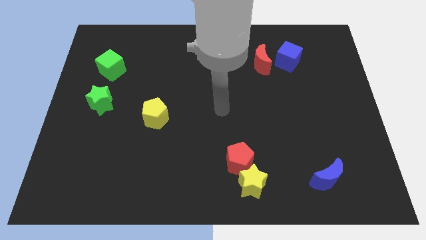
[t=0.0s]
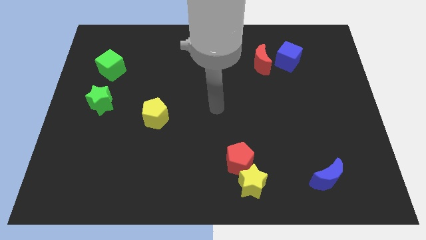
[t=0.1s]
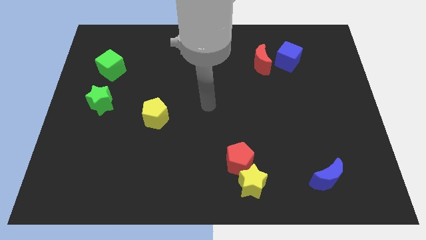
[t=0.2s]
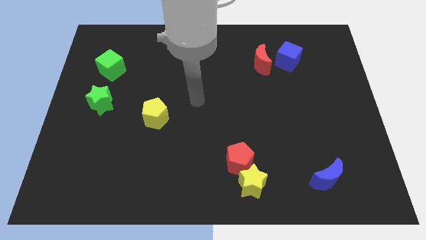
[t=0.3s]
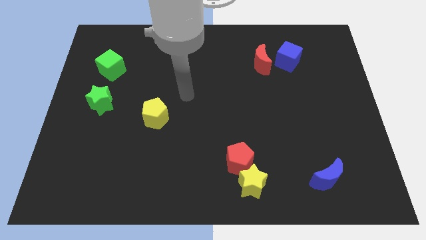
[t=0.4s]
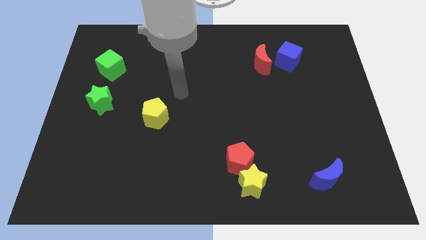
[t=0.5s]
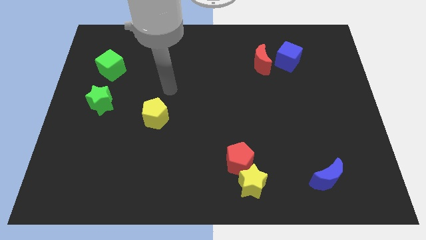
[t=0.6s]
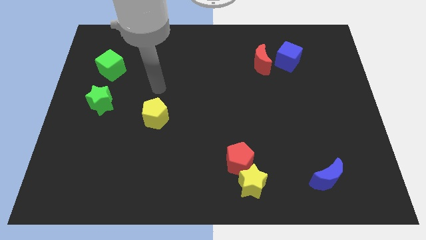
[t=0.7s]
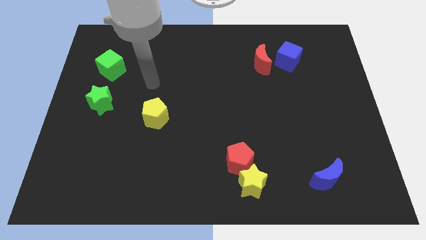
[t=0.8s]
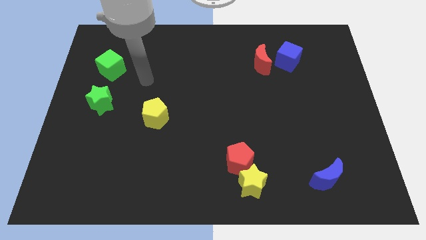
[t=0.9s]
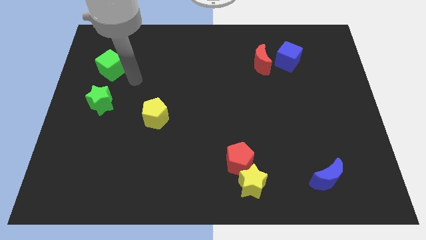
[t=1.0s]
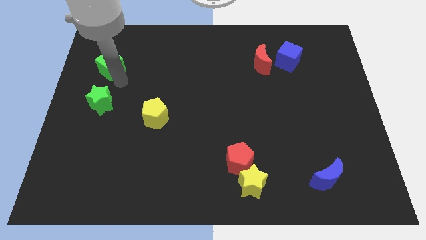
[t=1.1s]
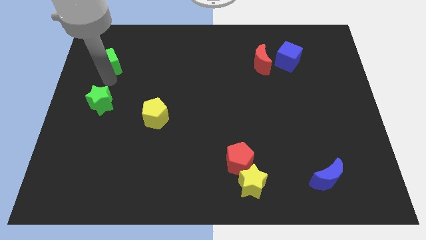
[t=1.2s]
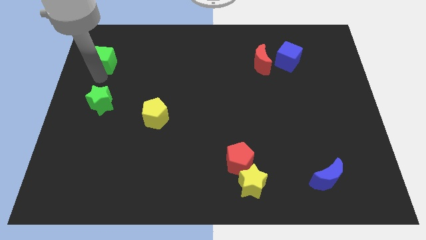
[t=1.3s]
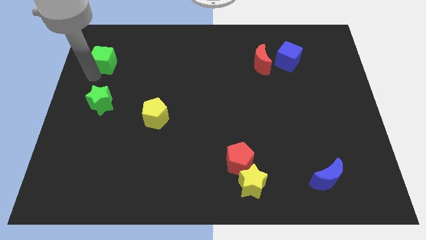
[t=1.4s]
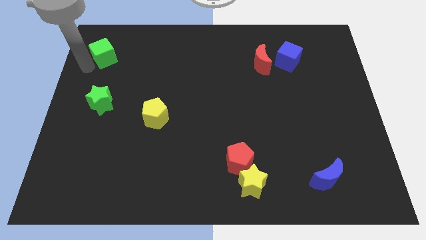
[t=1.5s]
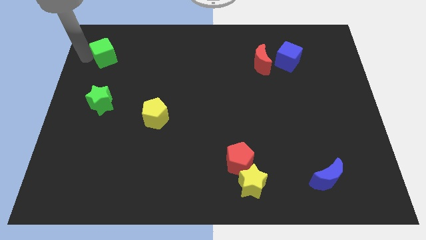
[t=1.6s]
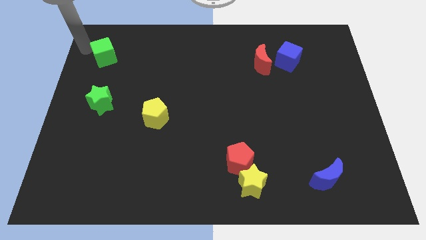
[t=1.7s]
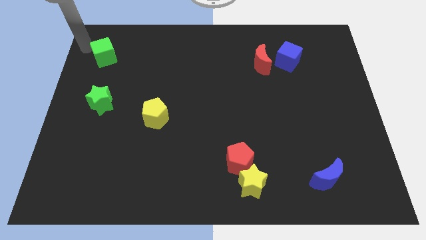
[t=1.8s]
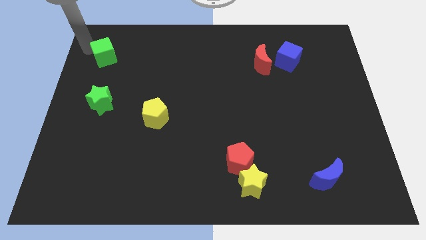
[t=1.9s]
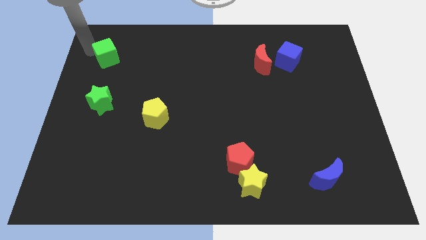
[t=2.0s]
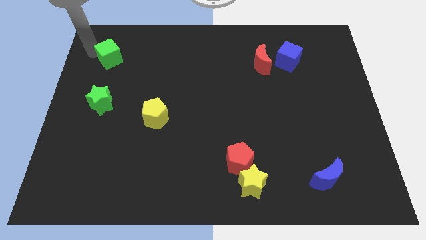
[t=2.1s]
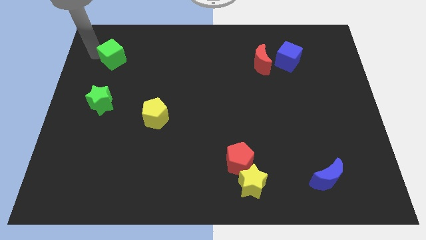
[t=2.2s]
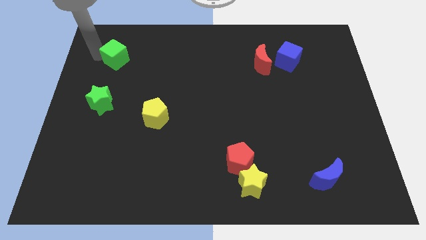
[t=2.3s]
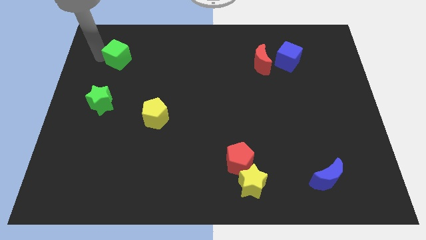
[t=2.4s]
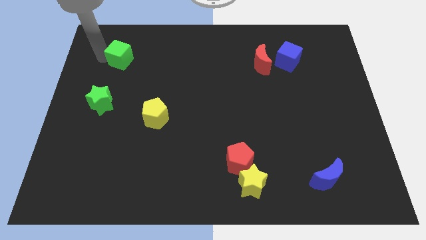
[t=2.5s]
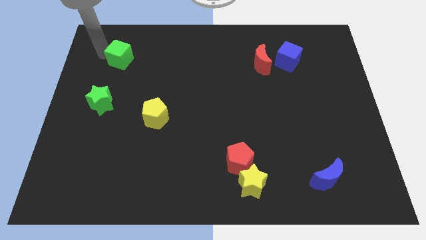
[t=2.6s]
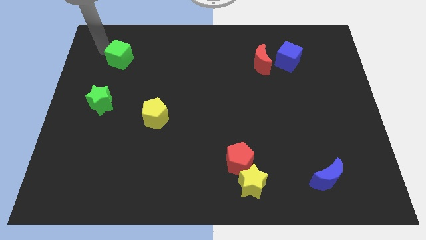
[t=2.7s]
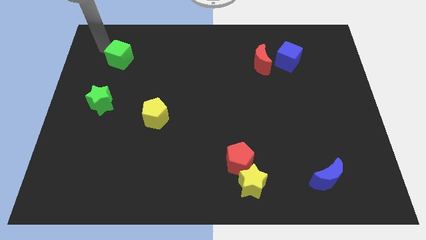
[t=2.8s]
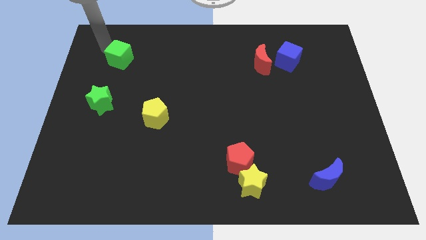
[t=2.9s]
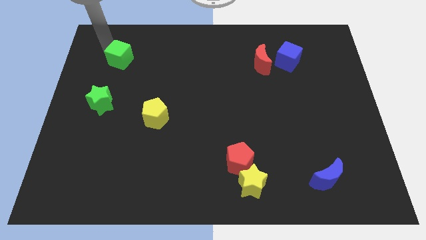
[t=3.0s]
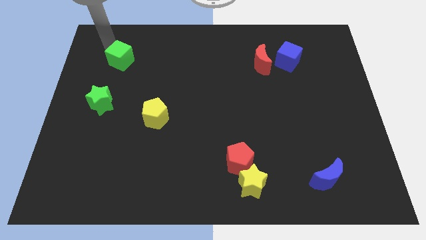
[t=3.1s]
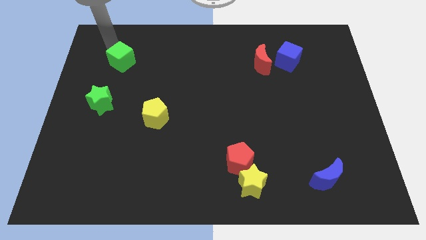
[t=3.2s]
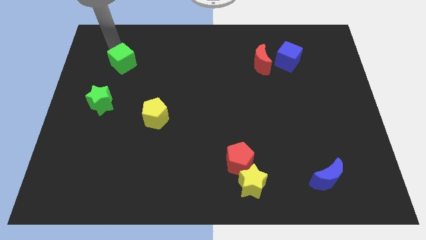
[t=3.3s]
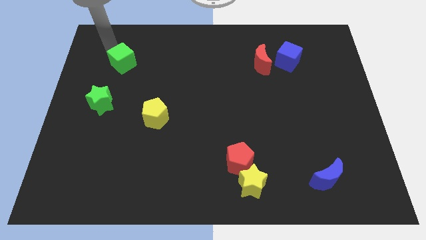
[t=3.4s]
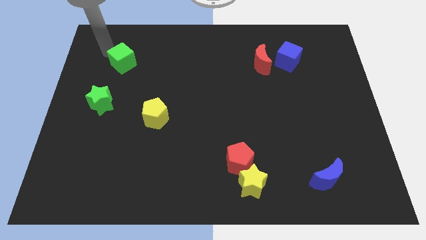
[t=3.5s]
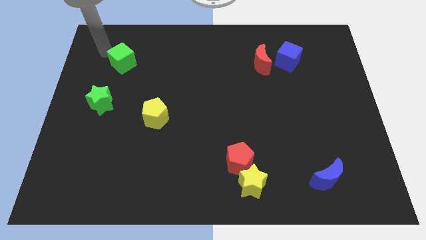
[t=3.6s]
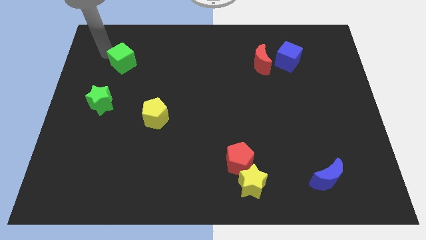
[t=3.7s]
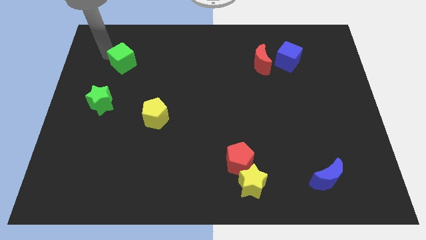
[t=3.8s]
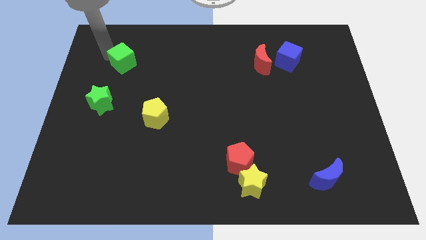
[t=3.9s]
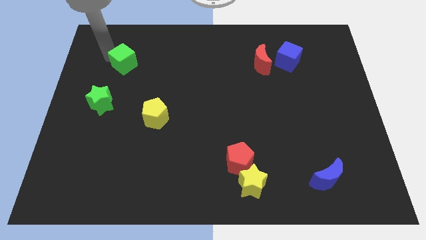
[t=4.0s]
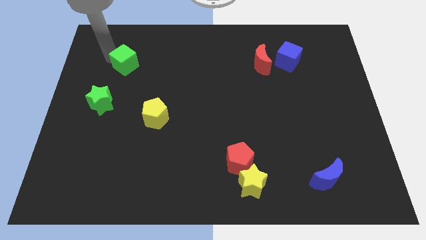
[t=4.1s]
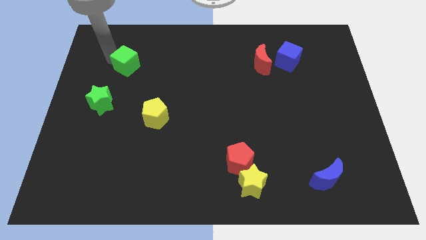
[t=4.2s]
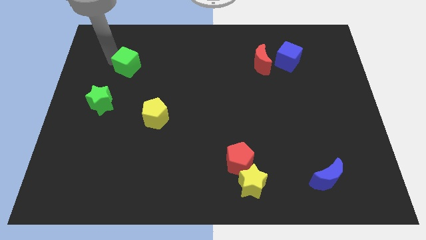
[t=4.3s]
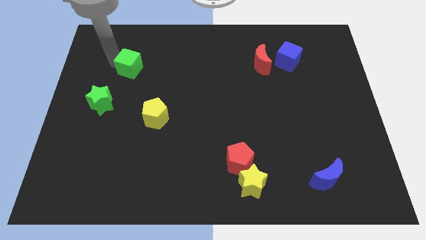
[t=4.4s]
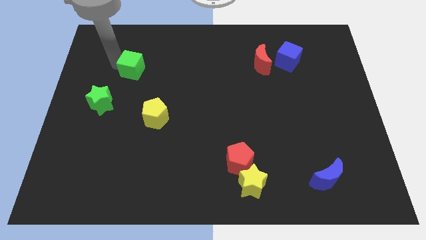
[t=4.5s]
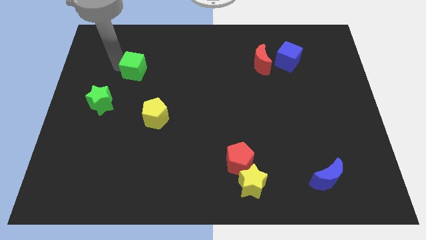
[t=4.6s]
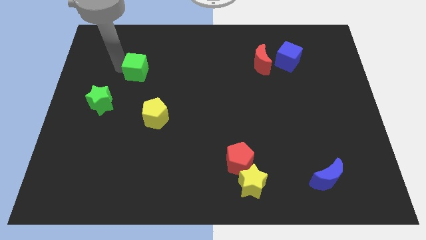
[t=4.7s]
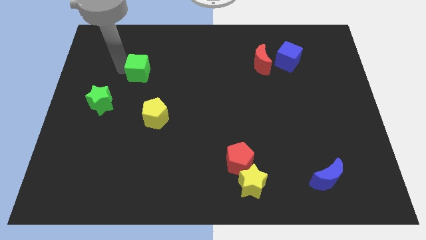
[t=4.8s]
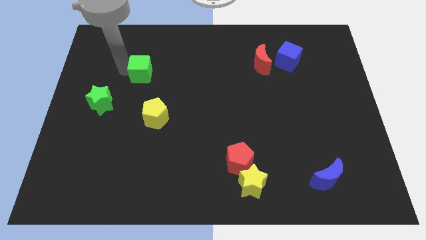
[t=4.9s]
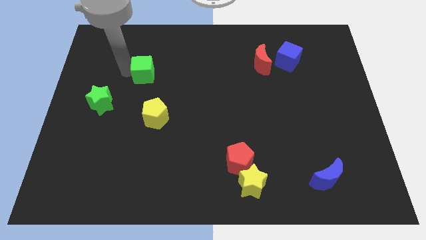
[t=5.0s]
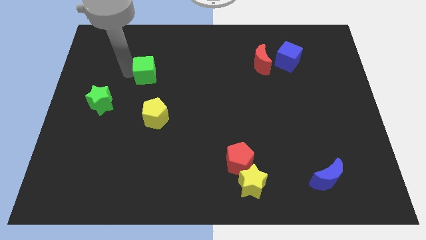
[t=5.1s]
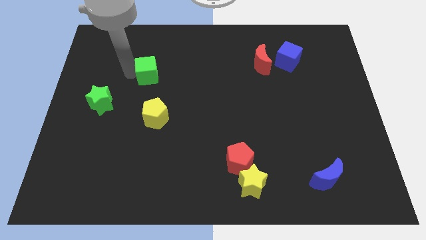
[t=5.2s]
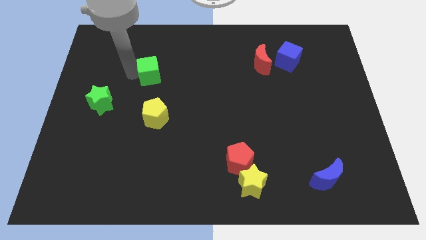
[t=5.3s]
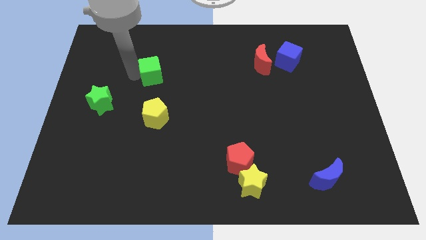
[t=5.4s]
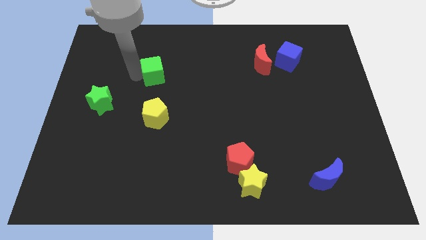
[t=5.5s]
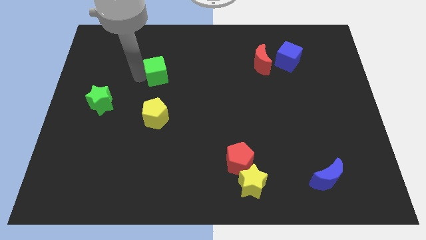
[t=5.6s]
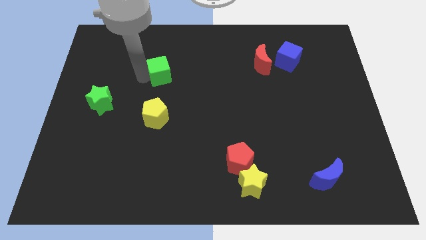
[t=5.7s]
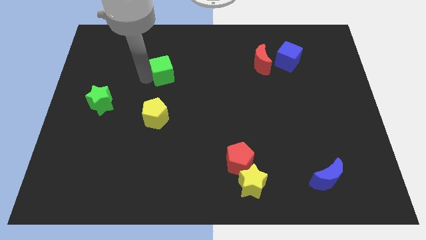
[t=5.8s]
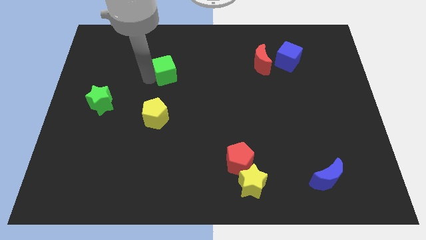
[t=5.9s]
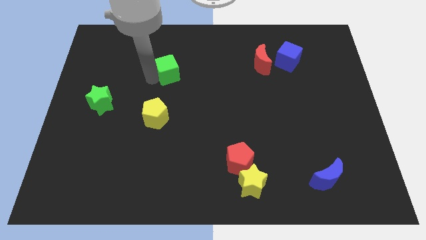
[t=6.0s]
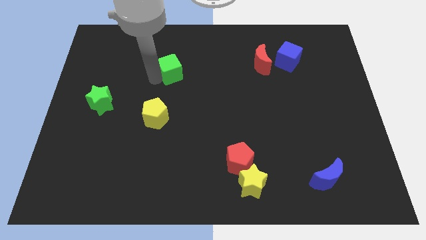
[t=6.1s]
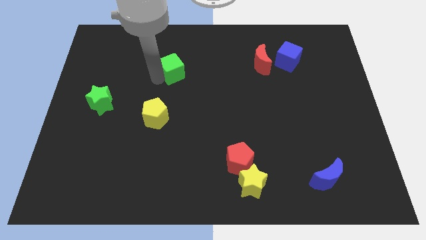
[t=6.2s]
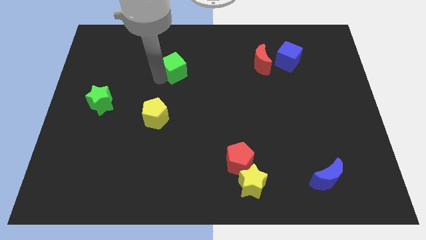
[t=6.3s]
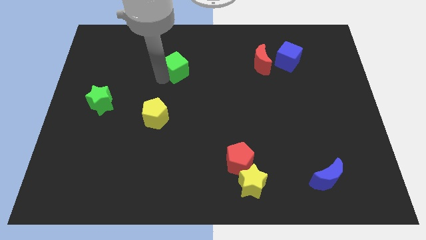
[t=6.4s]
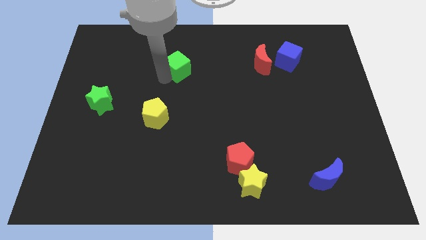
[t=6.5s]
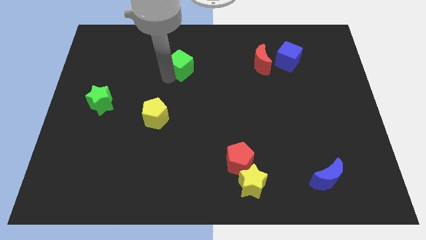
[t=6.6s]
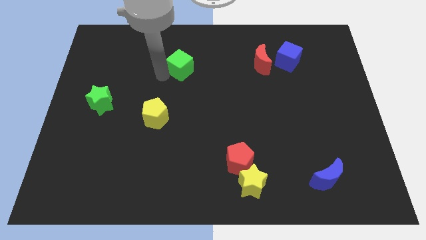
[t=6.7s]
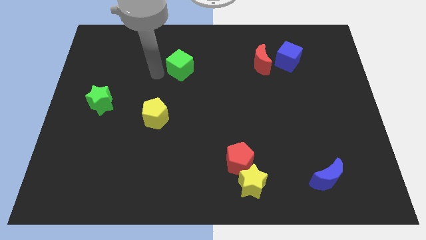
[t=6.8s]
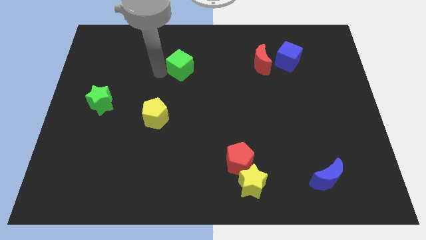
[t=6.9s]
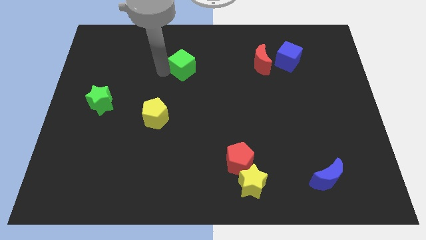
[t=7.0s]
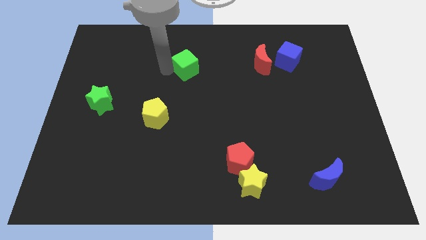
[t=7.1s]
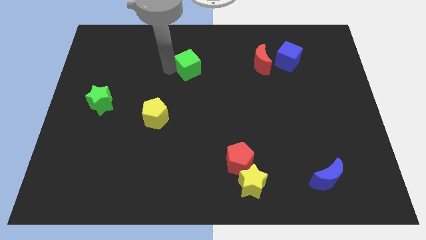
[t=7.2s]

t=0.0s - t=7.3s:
push the green cube right

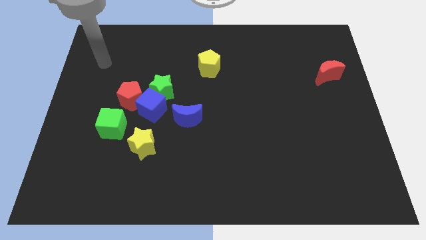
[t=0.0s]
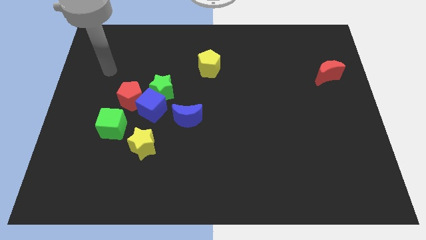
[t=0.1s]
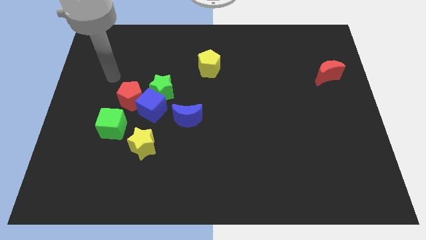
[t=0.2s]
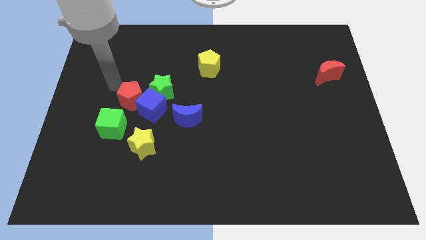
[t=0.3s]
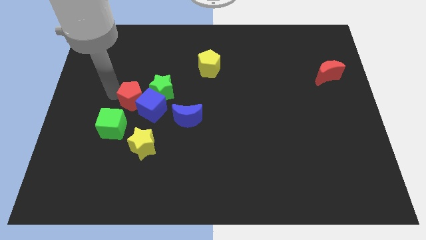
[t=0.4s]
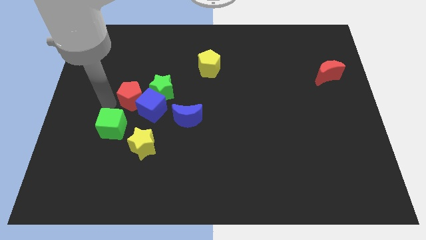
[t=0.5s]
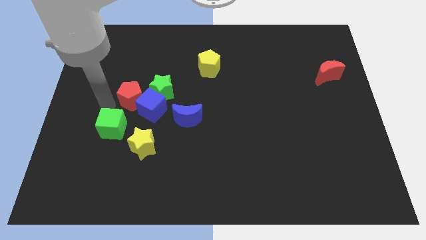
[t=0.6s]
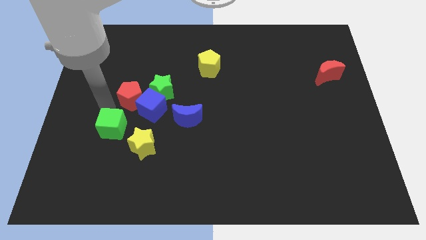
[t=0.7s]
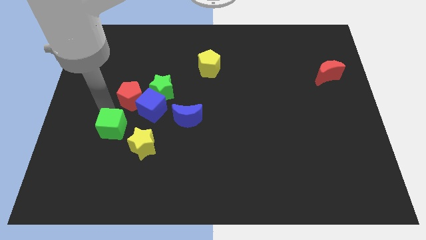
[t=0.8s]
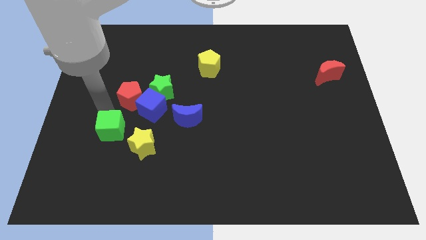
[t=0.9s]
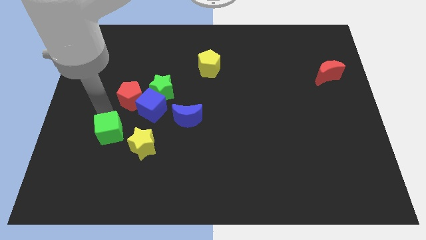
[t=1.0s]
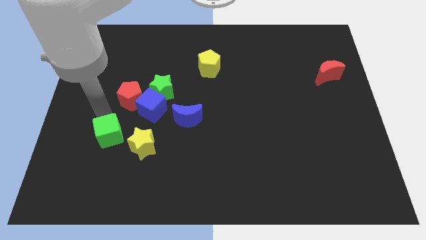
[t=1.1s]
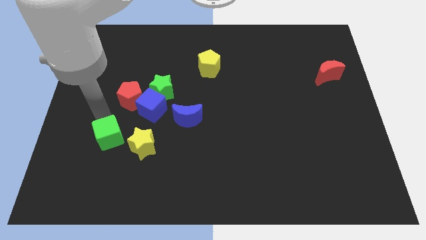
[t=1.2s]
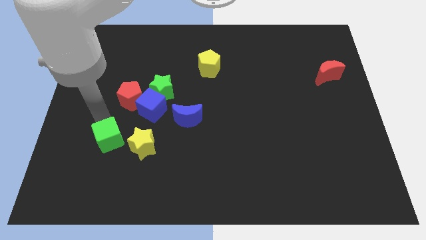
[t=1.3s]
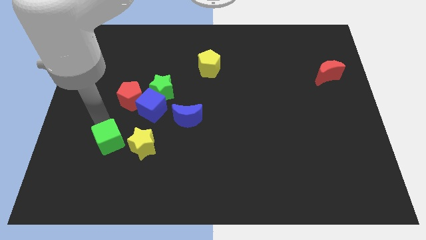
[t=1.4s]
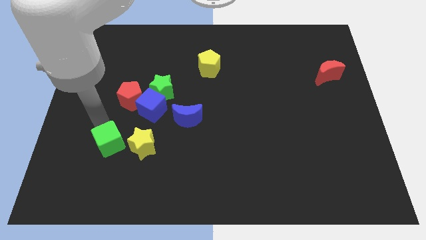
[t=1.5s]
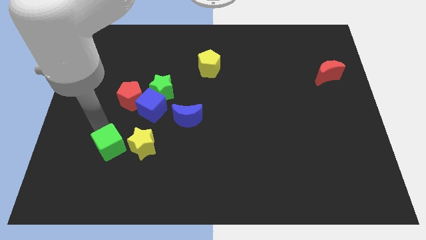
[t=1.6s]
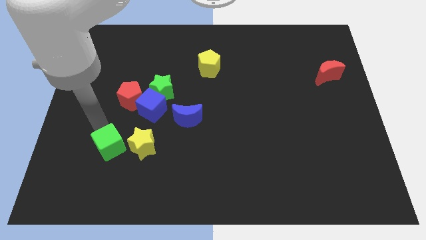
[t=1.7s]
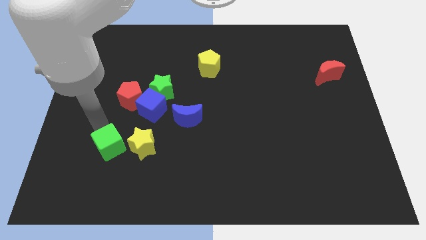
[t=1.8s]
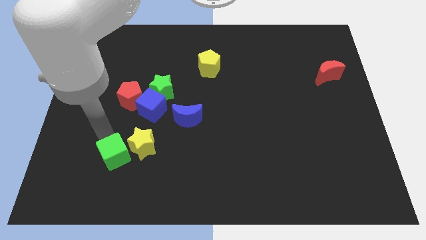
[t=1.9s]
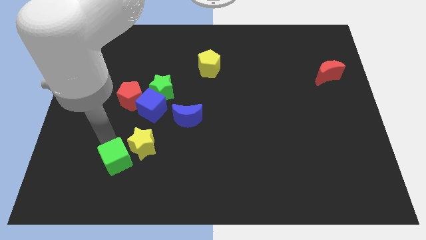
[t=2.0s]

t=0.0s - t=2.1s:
slide the green cube slightly down and then to the right
